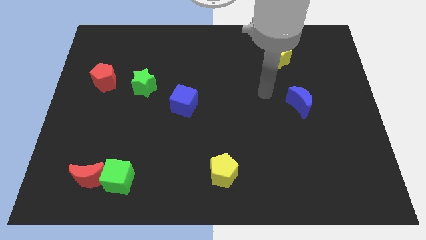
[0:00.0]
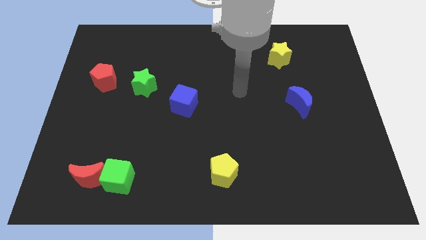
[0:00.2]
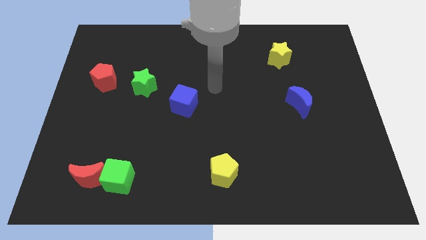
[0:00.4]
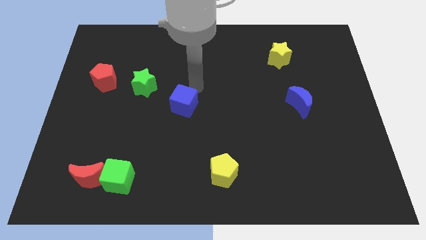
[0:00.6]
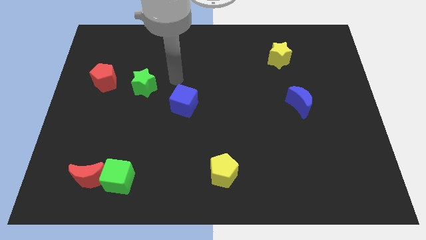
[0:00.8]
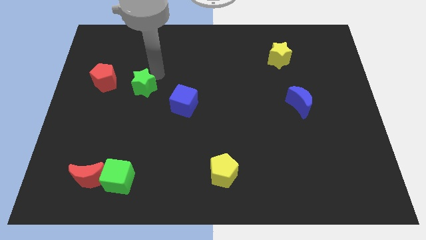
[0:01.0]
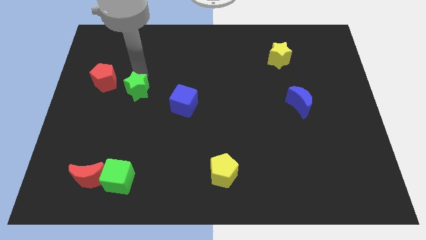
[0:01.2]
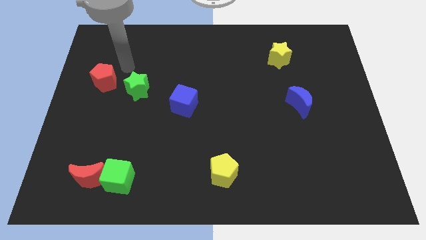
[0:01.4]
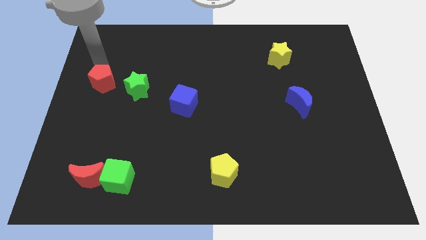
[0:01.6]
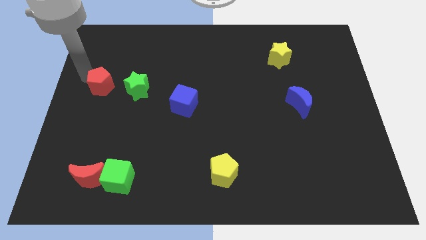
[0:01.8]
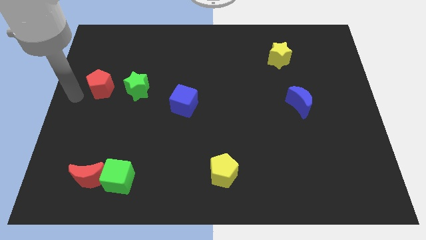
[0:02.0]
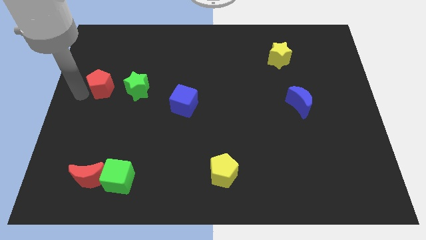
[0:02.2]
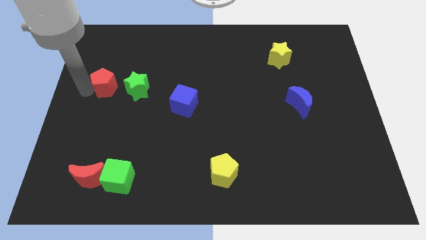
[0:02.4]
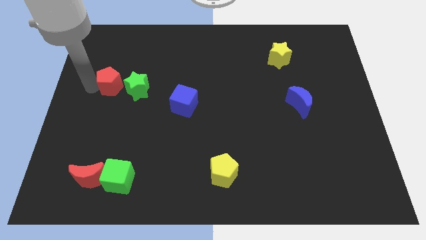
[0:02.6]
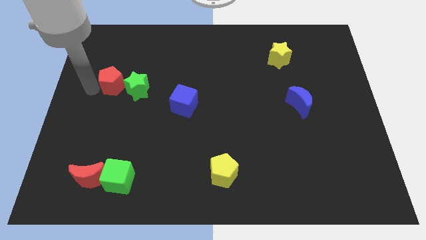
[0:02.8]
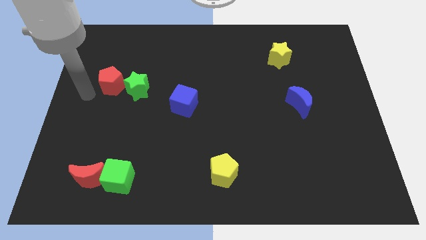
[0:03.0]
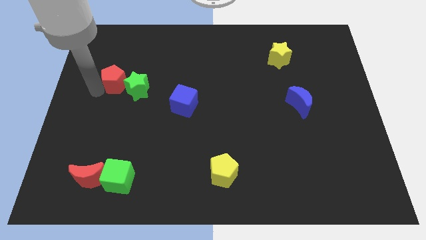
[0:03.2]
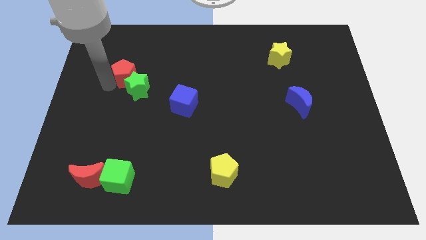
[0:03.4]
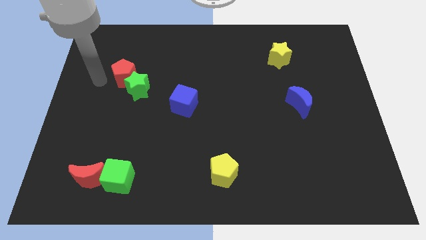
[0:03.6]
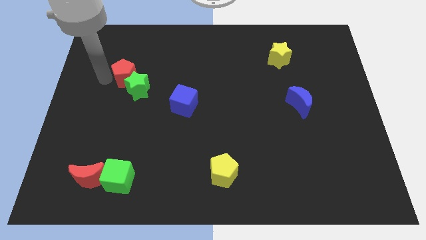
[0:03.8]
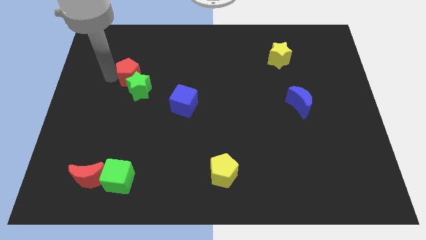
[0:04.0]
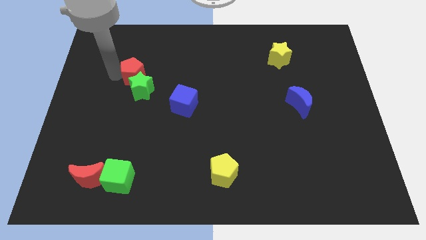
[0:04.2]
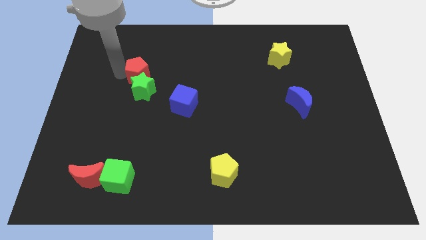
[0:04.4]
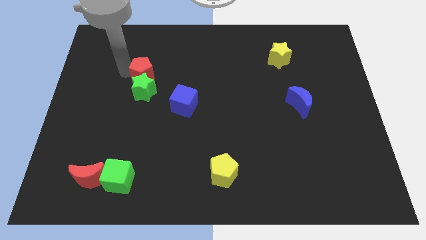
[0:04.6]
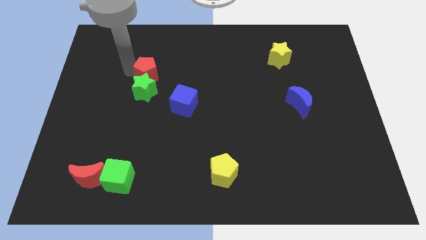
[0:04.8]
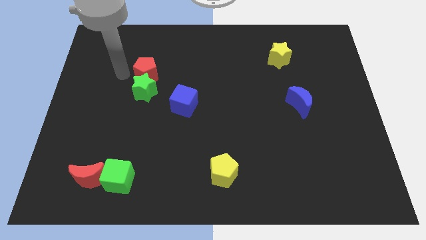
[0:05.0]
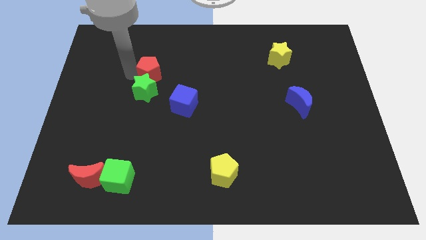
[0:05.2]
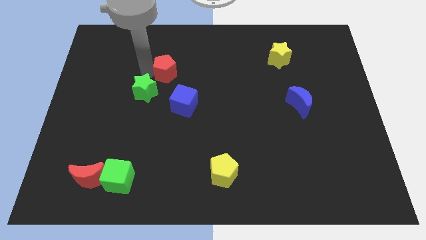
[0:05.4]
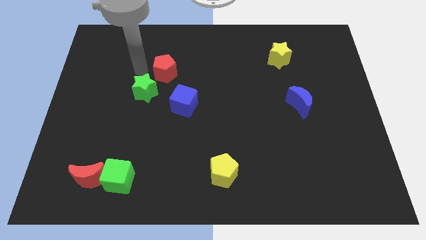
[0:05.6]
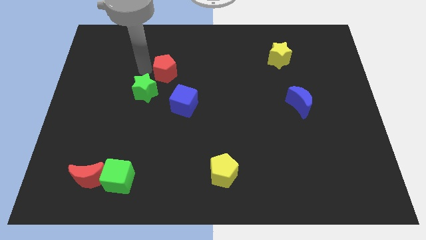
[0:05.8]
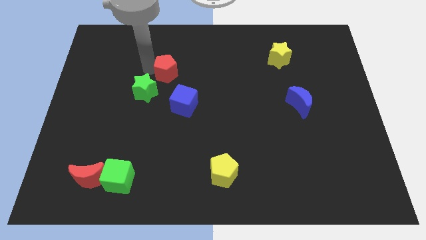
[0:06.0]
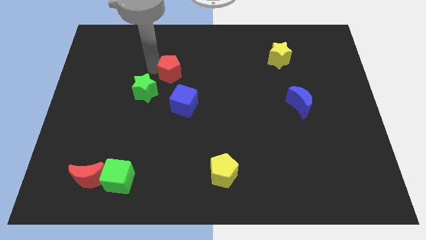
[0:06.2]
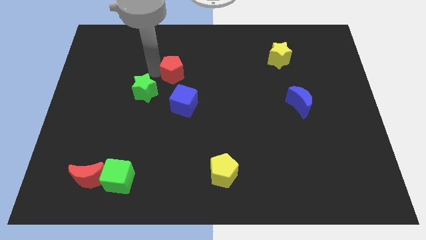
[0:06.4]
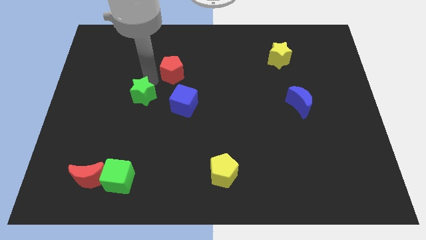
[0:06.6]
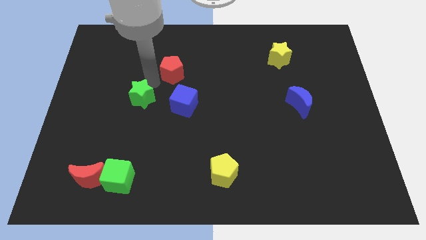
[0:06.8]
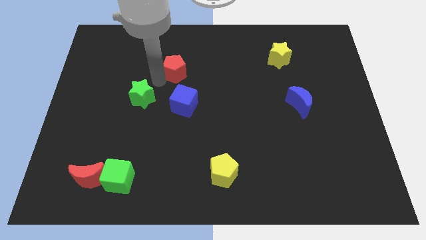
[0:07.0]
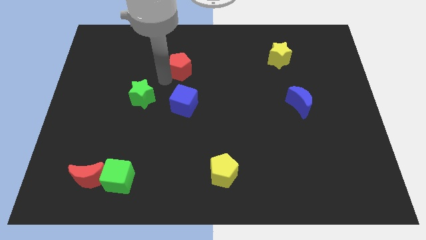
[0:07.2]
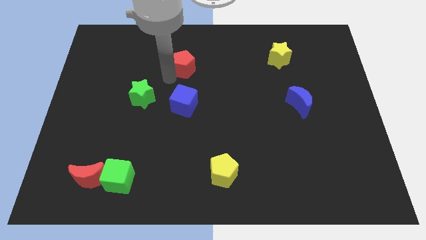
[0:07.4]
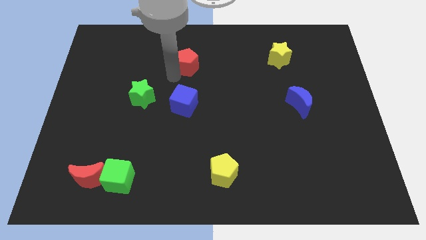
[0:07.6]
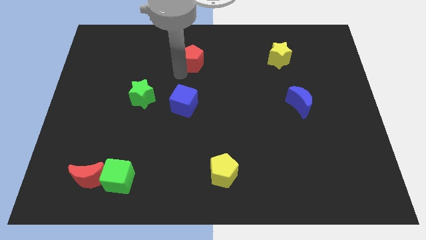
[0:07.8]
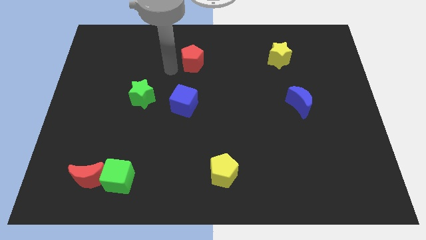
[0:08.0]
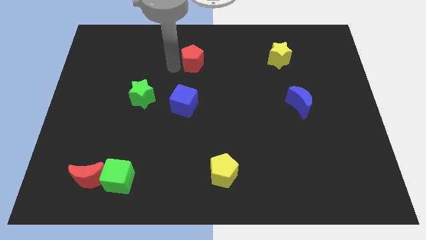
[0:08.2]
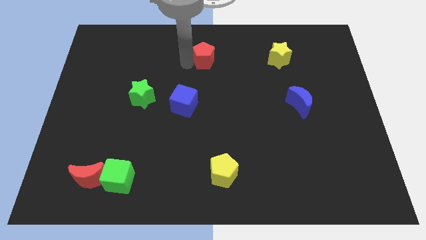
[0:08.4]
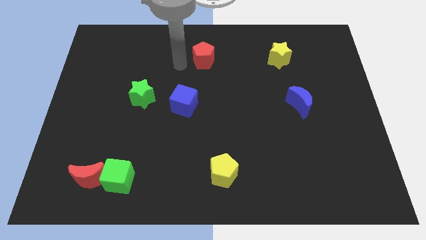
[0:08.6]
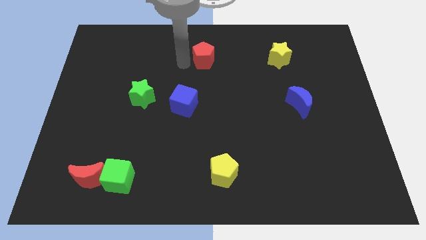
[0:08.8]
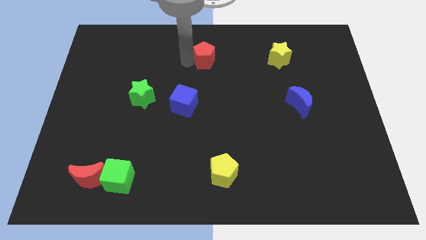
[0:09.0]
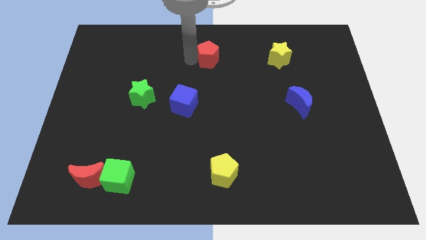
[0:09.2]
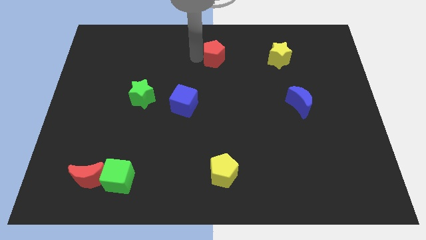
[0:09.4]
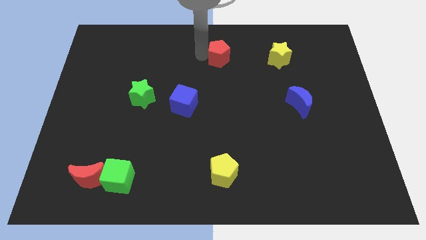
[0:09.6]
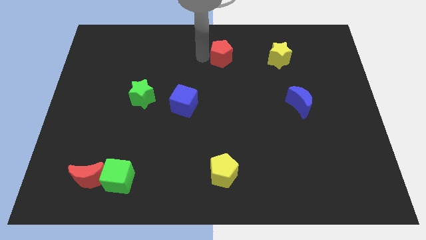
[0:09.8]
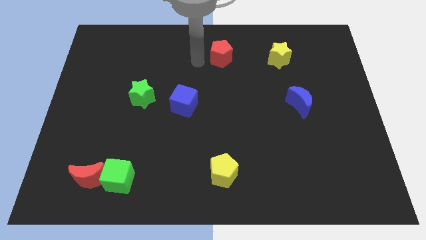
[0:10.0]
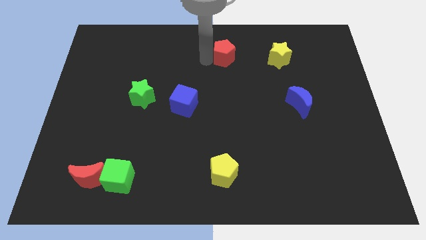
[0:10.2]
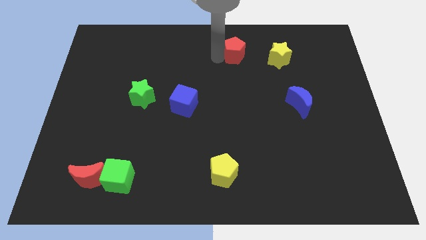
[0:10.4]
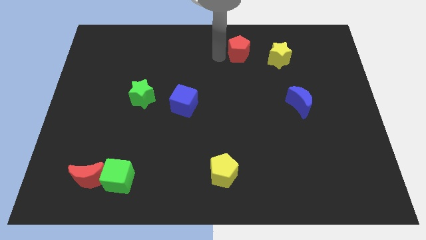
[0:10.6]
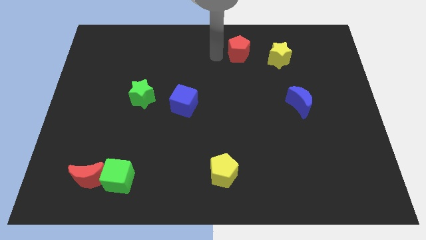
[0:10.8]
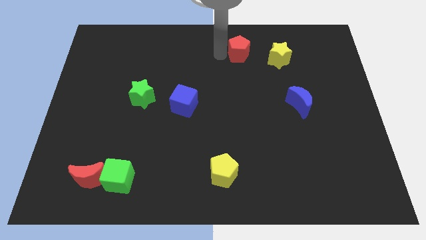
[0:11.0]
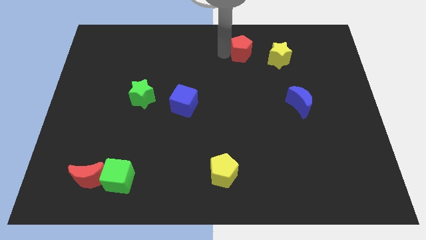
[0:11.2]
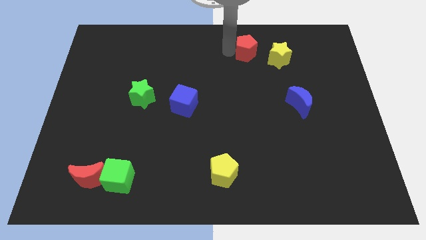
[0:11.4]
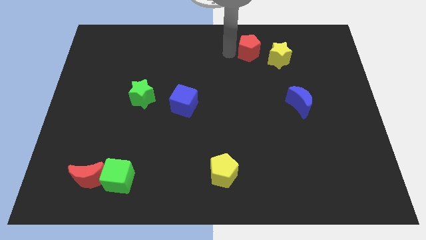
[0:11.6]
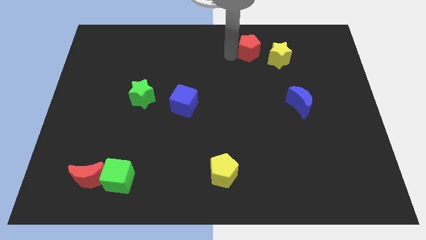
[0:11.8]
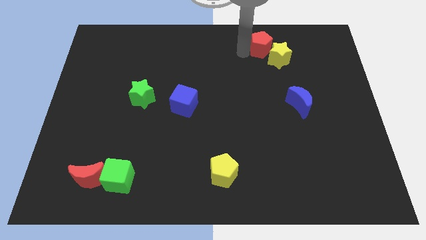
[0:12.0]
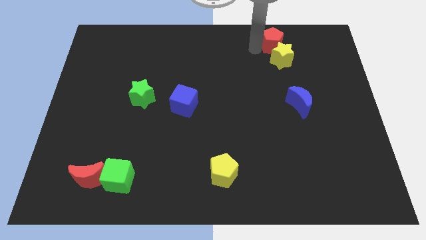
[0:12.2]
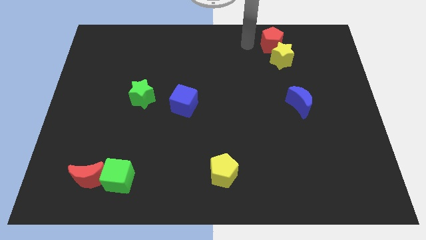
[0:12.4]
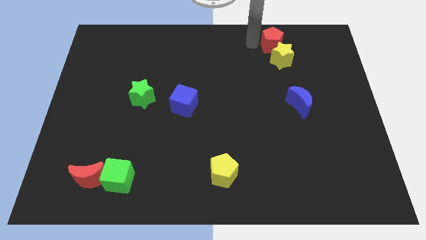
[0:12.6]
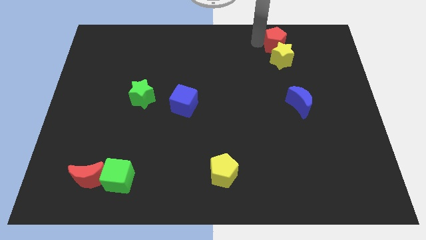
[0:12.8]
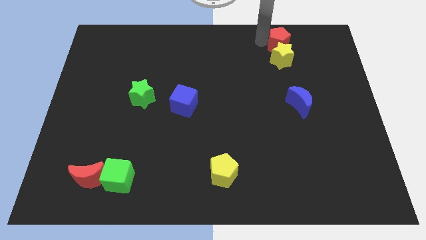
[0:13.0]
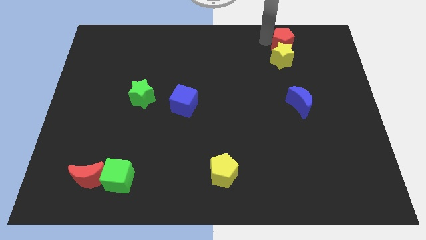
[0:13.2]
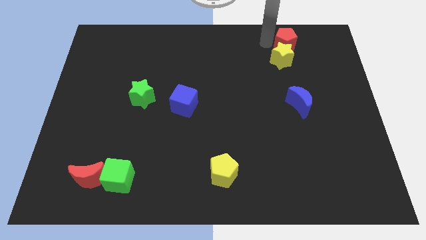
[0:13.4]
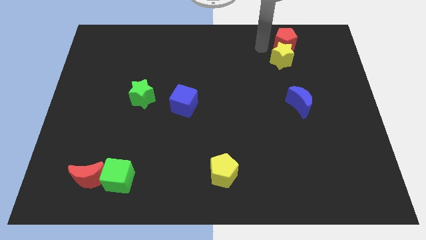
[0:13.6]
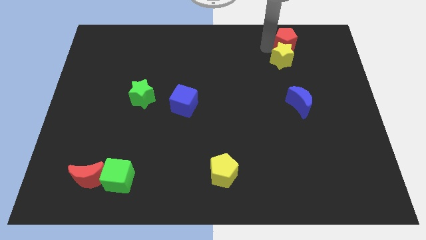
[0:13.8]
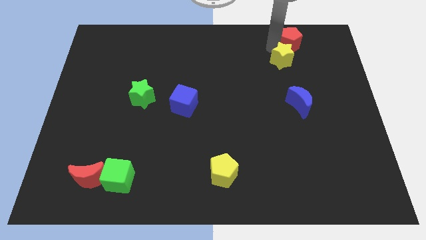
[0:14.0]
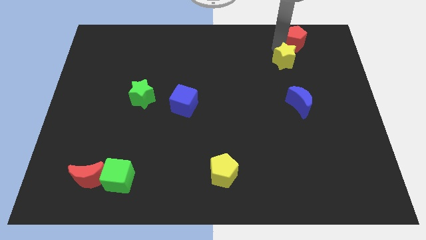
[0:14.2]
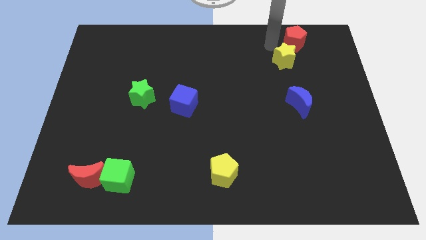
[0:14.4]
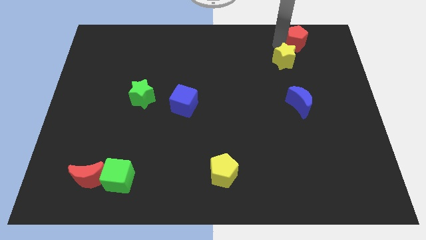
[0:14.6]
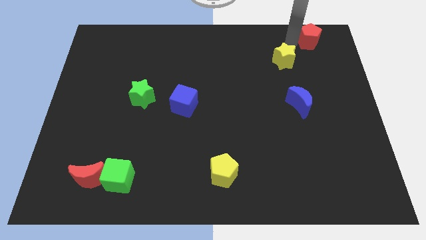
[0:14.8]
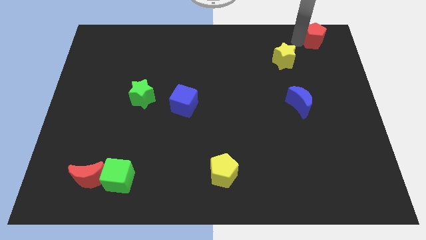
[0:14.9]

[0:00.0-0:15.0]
put the red pentagon to the top right of the board
